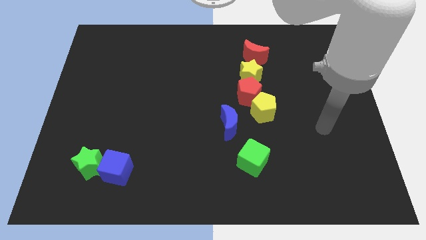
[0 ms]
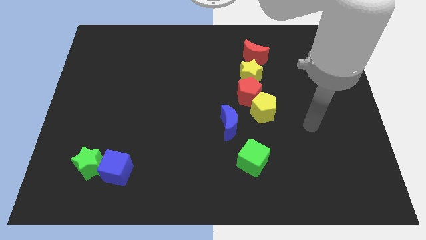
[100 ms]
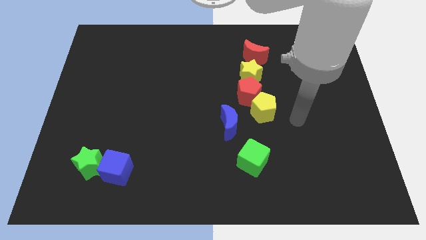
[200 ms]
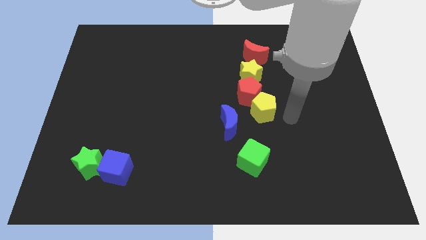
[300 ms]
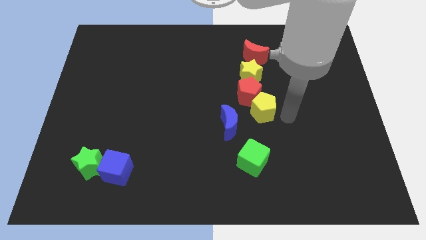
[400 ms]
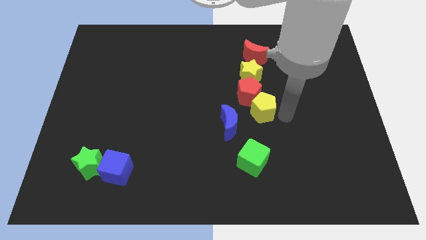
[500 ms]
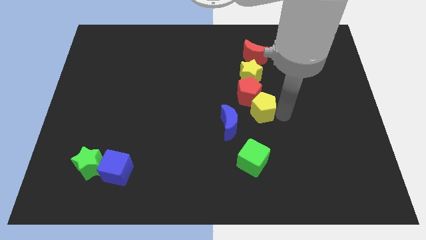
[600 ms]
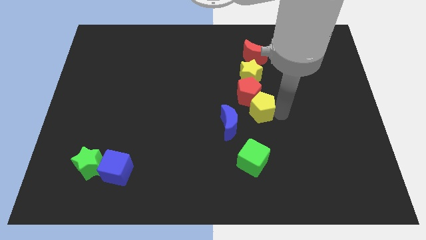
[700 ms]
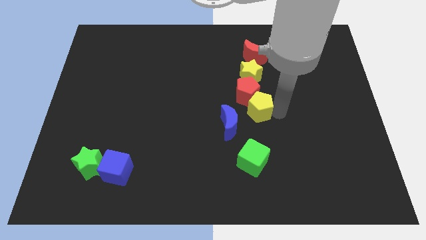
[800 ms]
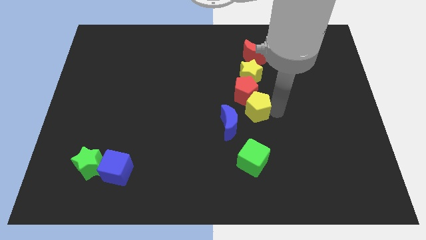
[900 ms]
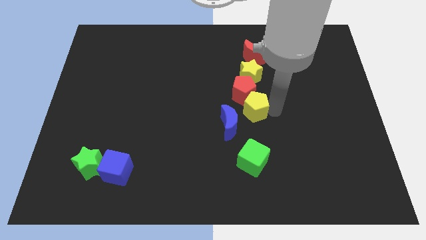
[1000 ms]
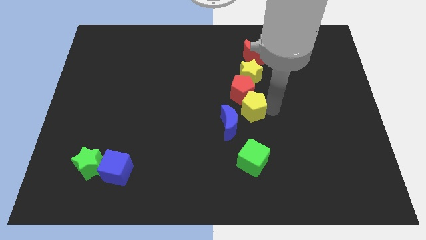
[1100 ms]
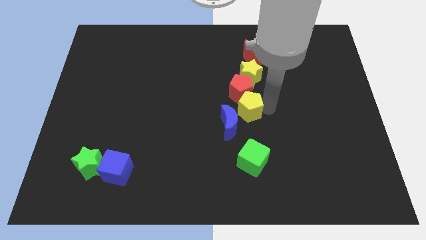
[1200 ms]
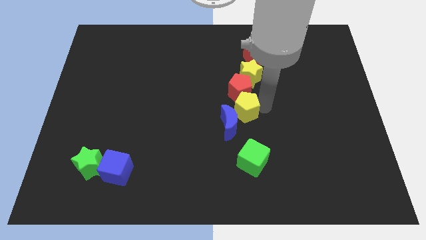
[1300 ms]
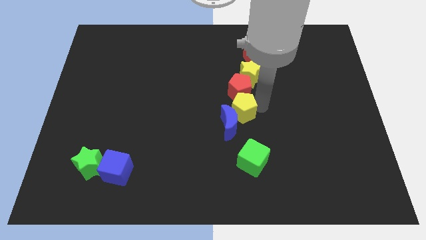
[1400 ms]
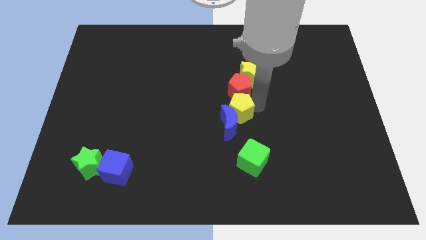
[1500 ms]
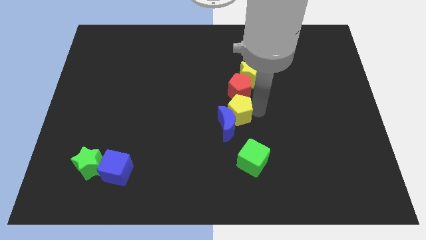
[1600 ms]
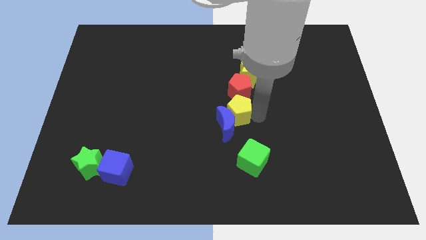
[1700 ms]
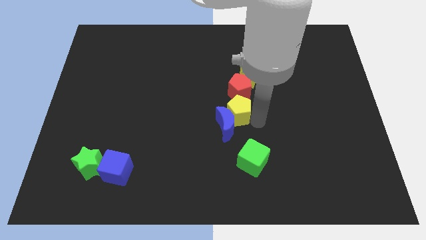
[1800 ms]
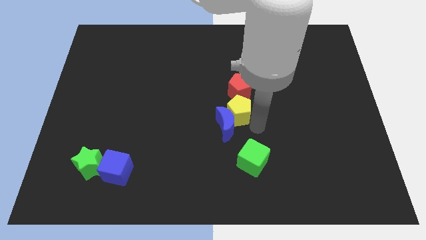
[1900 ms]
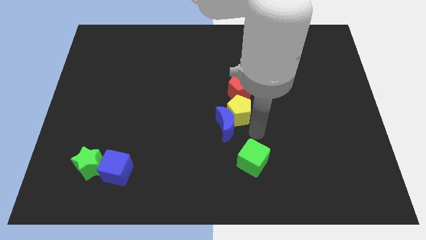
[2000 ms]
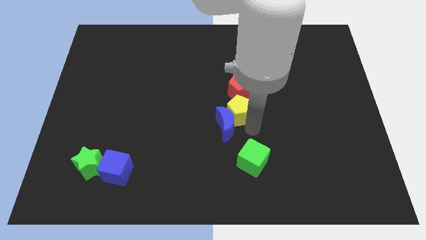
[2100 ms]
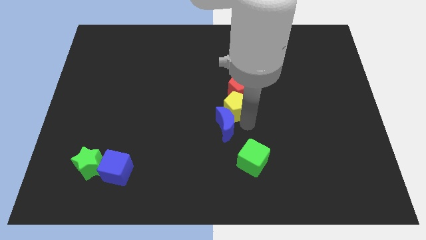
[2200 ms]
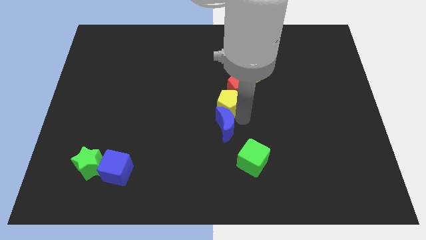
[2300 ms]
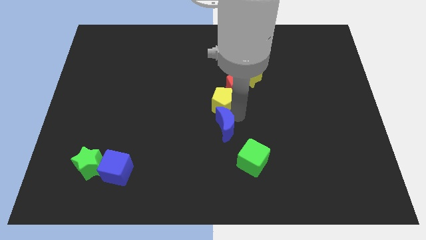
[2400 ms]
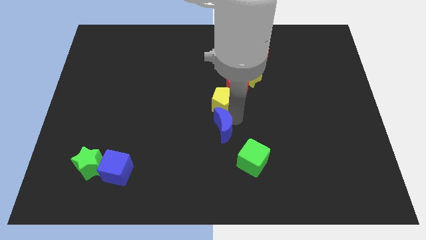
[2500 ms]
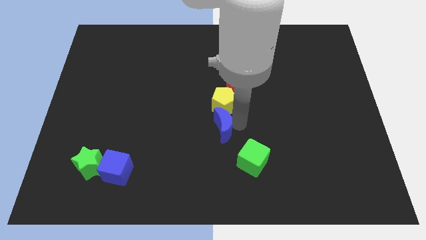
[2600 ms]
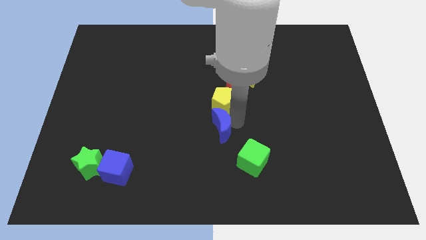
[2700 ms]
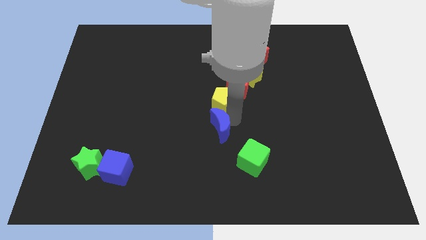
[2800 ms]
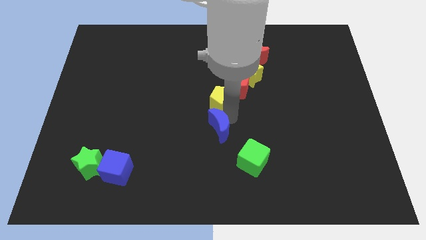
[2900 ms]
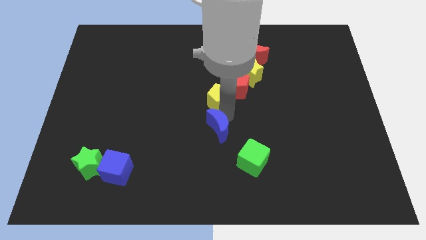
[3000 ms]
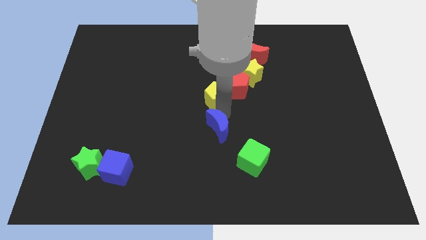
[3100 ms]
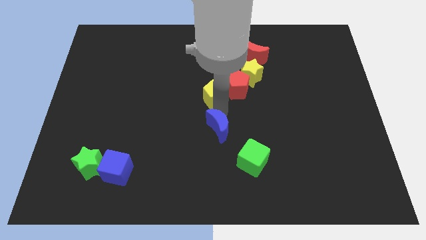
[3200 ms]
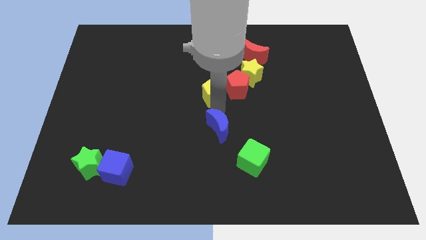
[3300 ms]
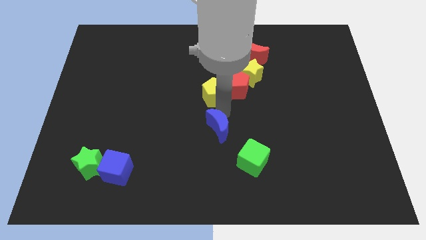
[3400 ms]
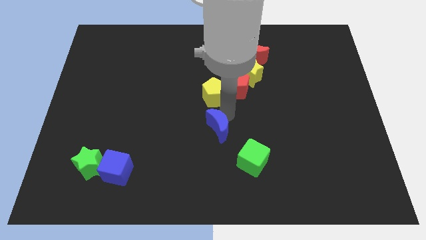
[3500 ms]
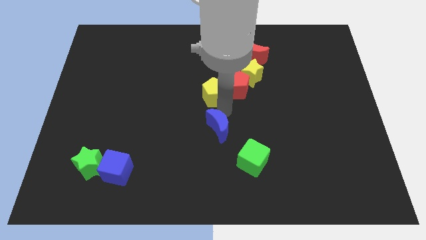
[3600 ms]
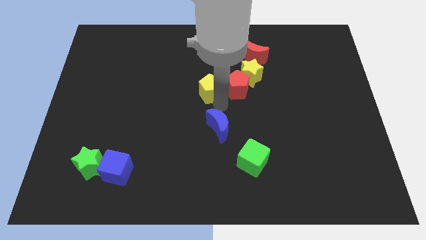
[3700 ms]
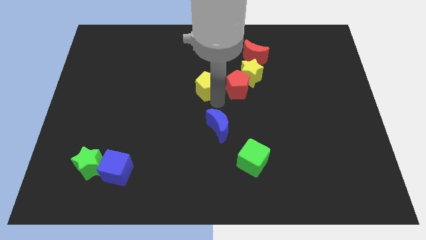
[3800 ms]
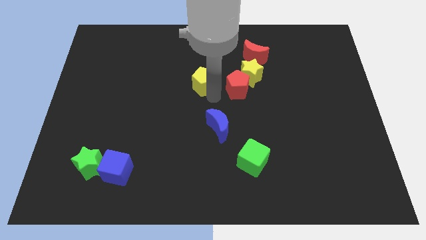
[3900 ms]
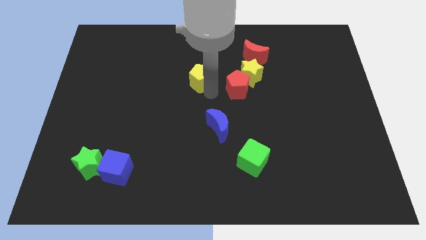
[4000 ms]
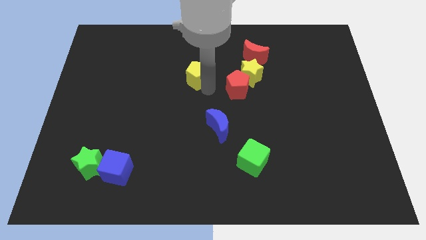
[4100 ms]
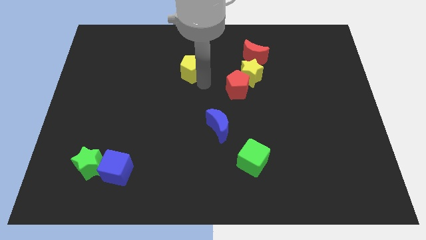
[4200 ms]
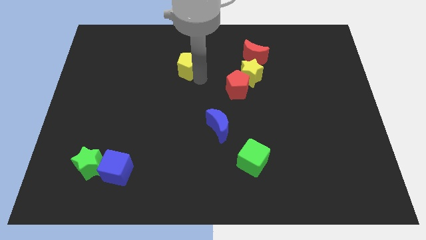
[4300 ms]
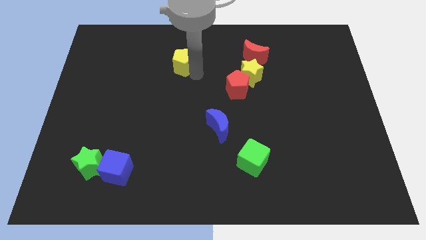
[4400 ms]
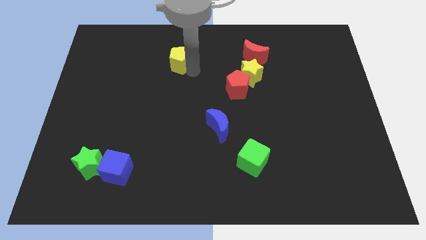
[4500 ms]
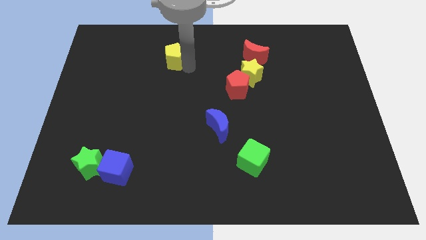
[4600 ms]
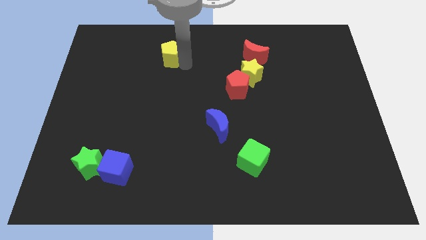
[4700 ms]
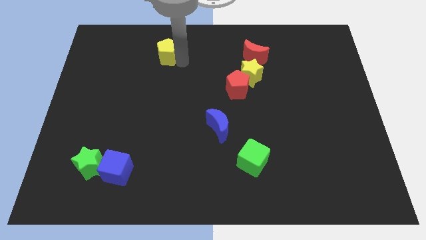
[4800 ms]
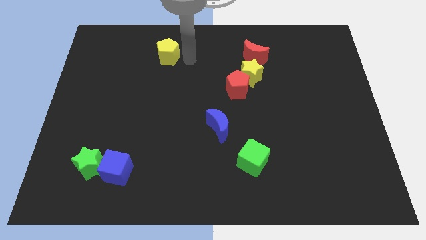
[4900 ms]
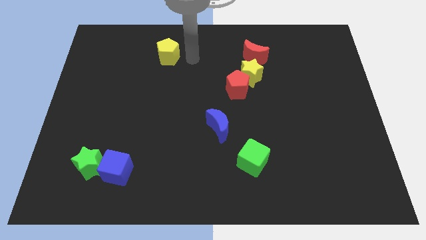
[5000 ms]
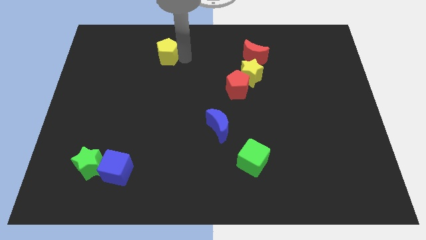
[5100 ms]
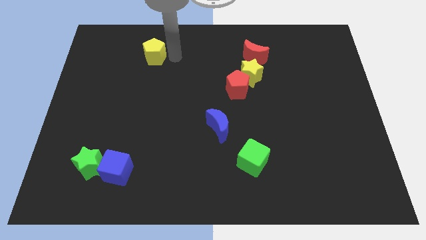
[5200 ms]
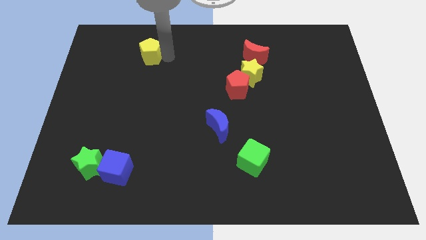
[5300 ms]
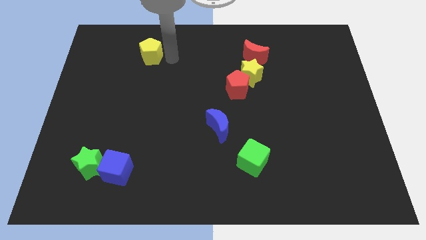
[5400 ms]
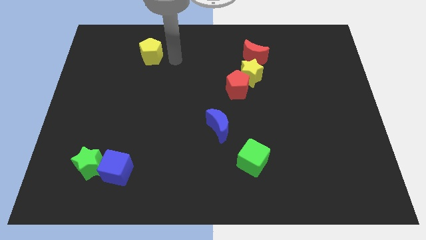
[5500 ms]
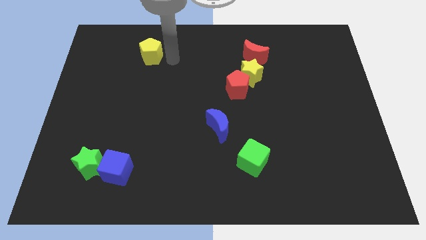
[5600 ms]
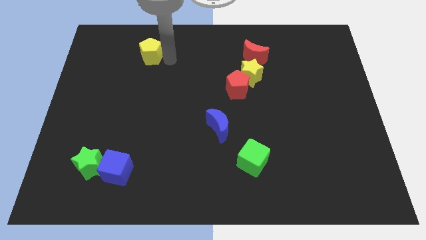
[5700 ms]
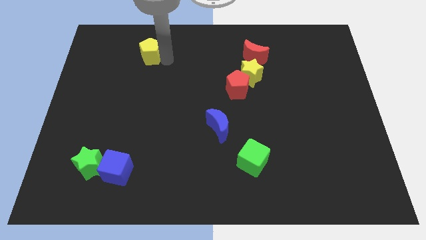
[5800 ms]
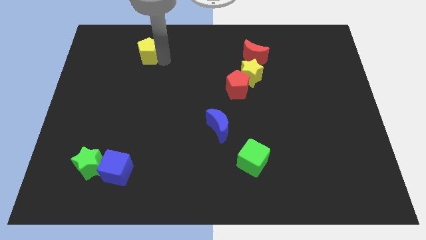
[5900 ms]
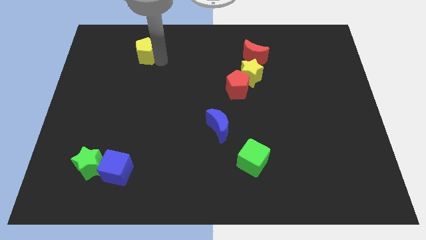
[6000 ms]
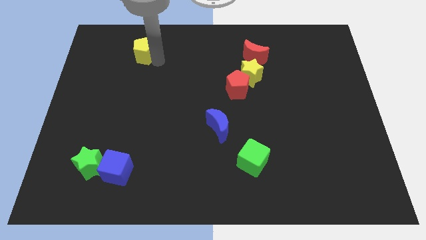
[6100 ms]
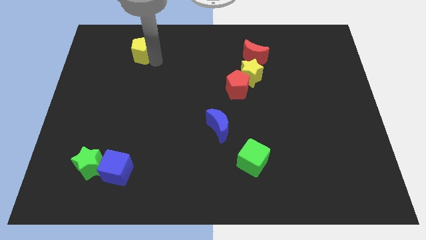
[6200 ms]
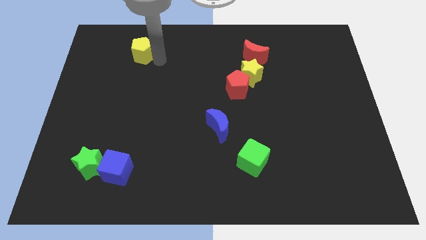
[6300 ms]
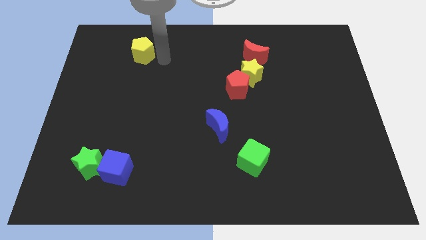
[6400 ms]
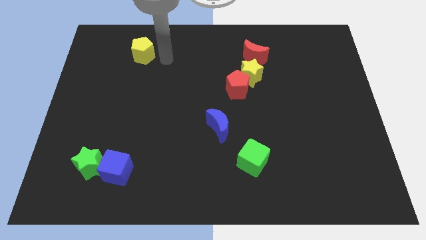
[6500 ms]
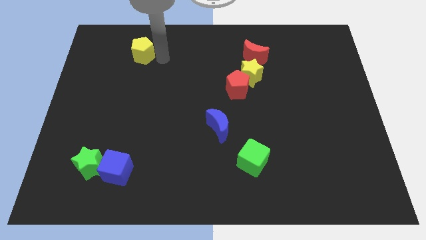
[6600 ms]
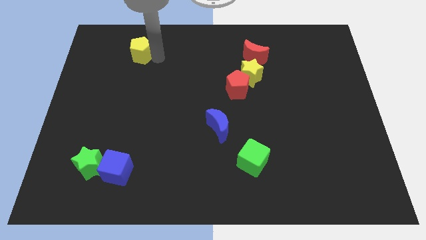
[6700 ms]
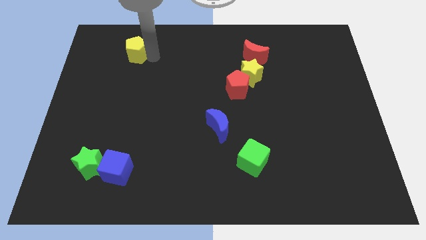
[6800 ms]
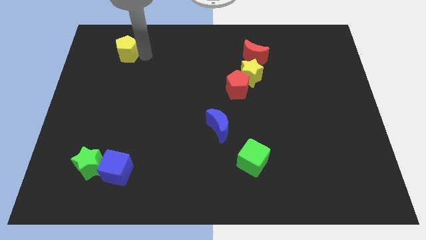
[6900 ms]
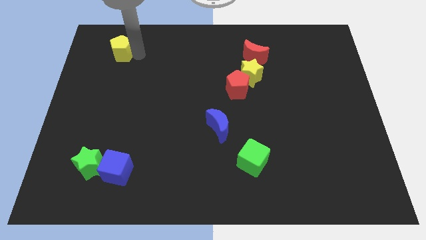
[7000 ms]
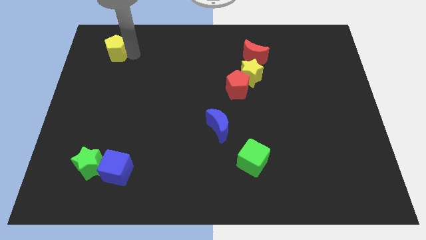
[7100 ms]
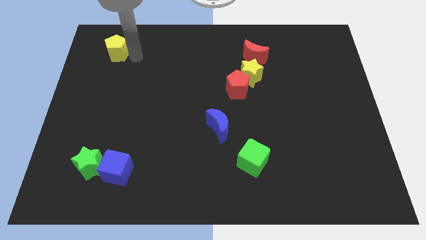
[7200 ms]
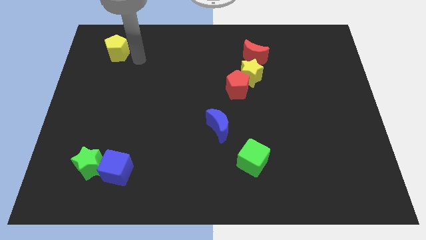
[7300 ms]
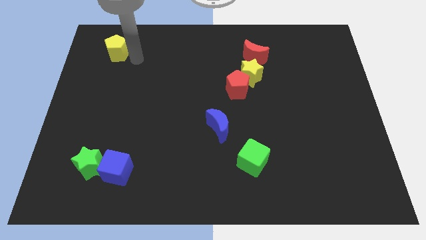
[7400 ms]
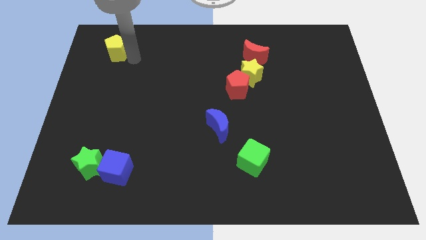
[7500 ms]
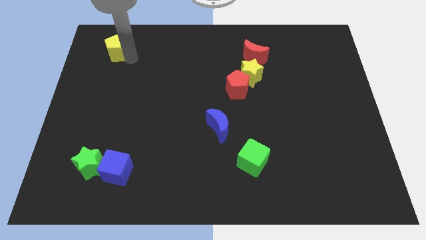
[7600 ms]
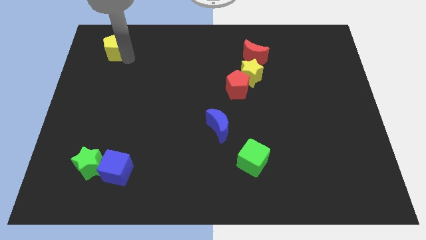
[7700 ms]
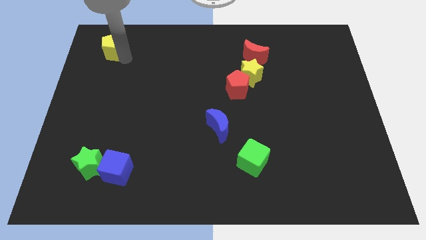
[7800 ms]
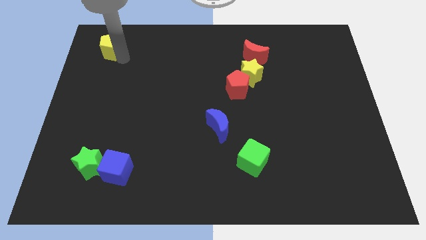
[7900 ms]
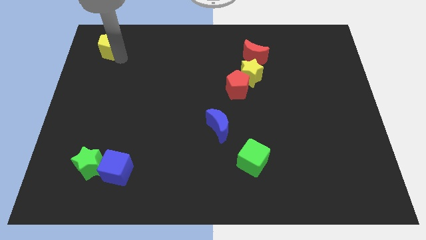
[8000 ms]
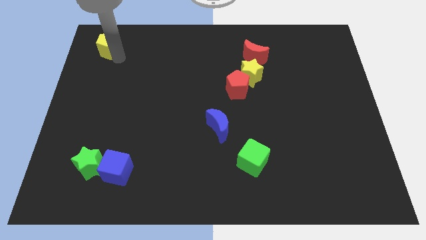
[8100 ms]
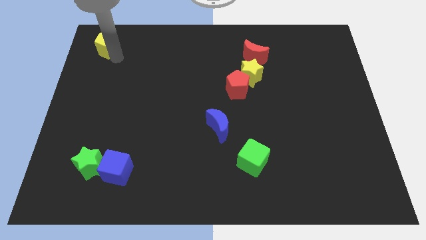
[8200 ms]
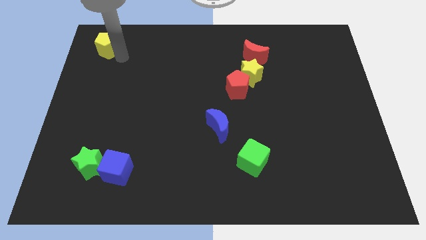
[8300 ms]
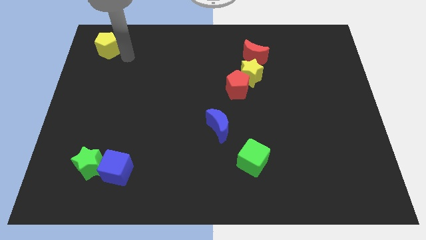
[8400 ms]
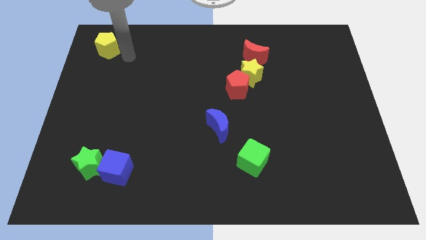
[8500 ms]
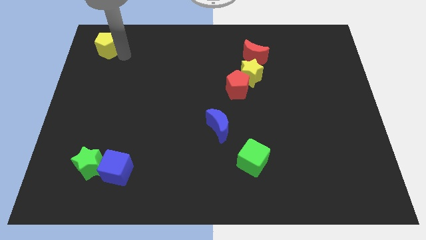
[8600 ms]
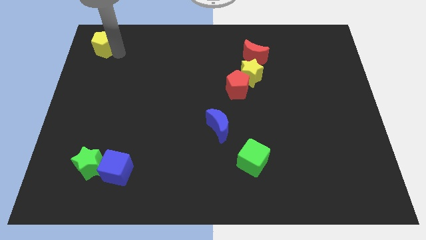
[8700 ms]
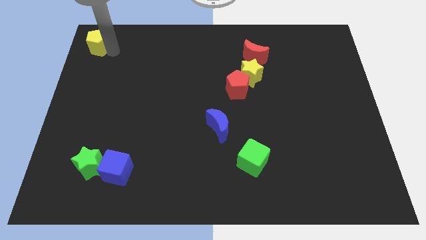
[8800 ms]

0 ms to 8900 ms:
slide the yellow pentagon to the upper left corner
